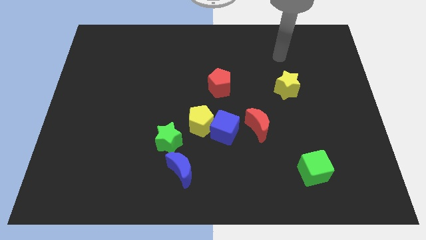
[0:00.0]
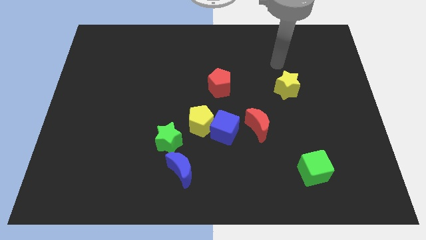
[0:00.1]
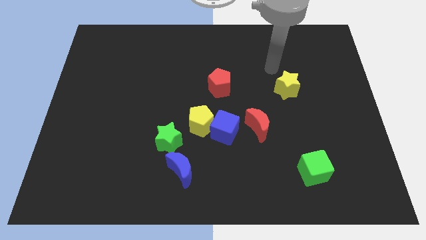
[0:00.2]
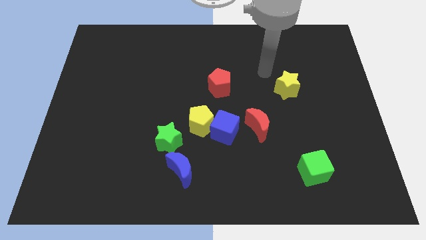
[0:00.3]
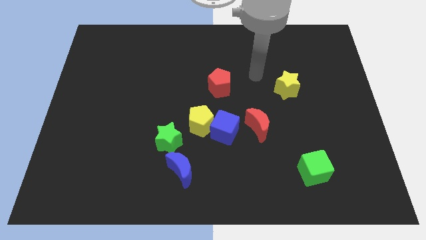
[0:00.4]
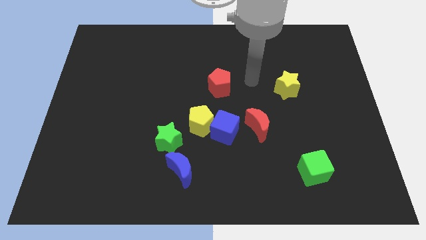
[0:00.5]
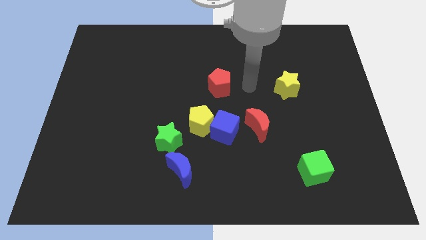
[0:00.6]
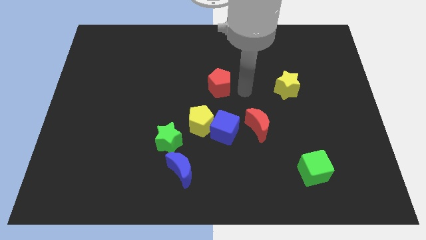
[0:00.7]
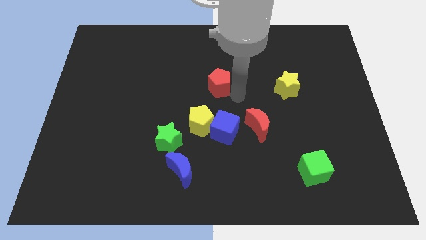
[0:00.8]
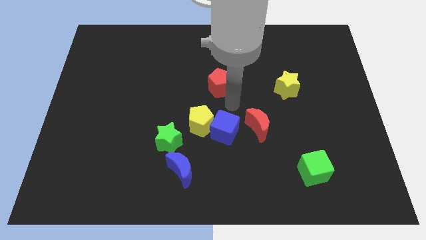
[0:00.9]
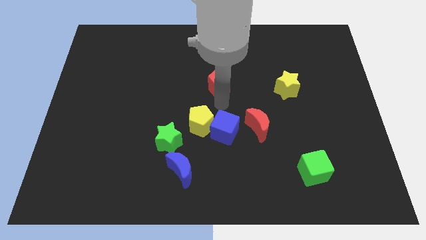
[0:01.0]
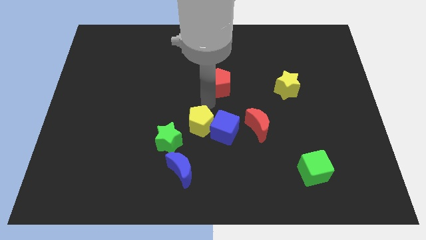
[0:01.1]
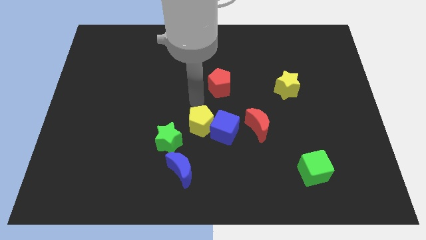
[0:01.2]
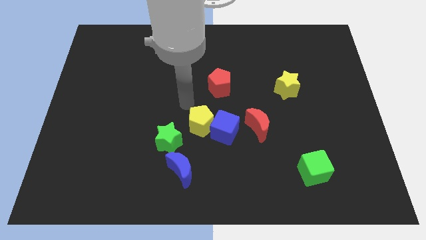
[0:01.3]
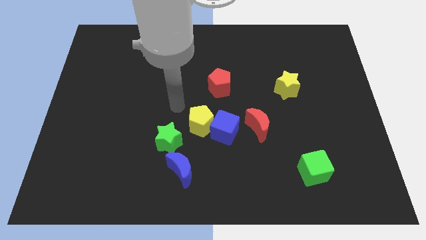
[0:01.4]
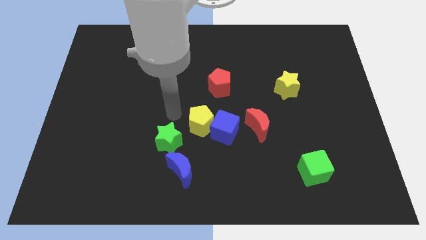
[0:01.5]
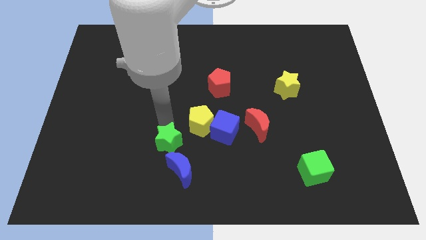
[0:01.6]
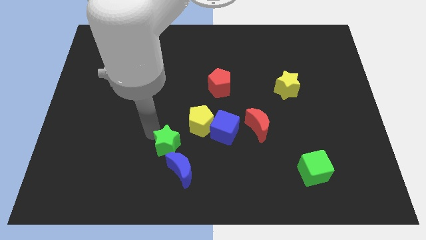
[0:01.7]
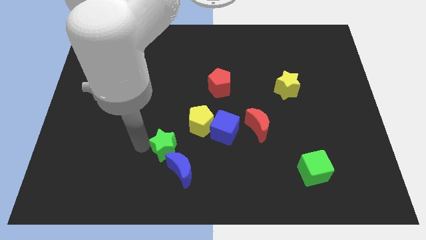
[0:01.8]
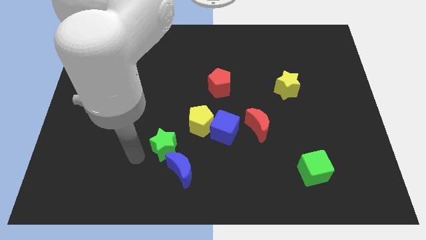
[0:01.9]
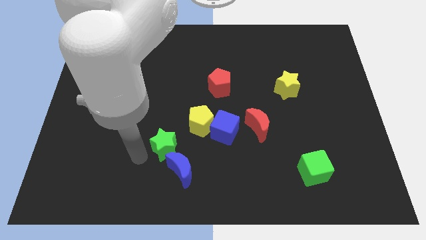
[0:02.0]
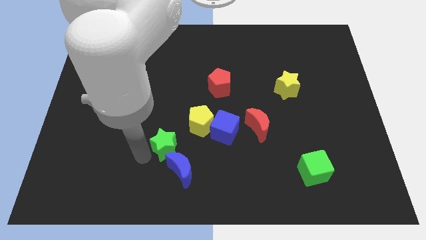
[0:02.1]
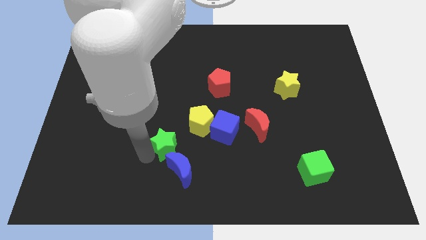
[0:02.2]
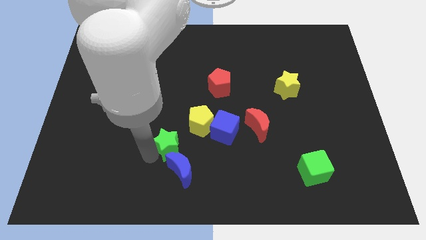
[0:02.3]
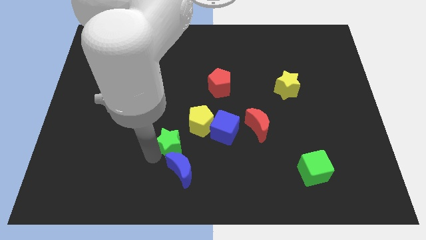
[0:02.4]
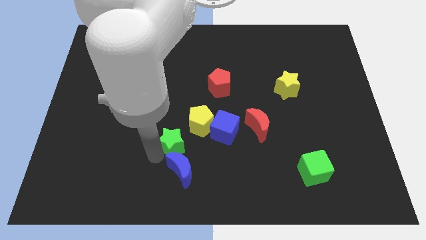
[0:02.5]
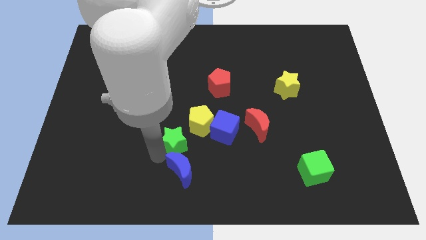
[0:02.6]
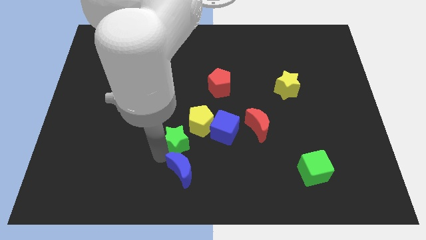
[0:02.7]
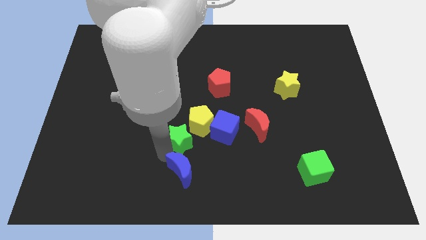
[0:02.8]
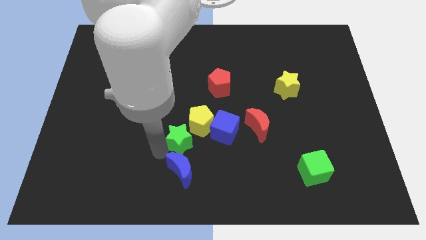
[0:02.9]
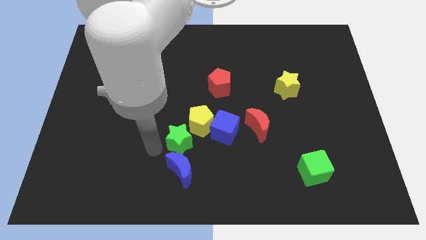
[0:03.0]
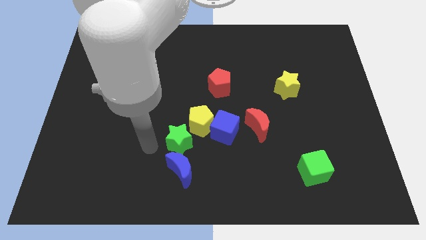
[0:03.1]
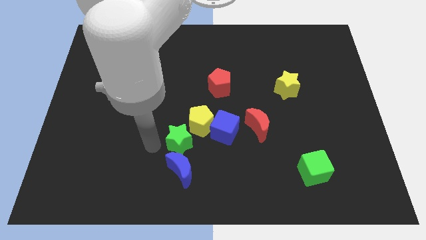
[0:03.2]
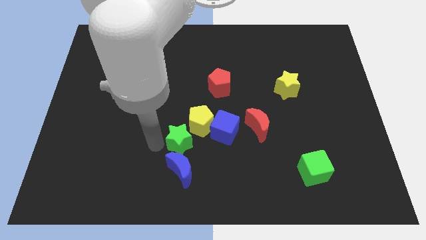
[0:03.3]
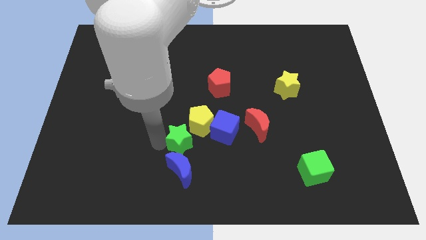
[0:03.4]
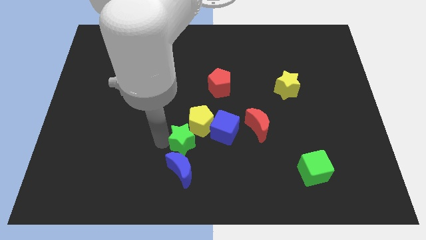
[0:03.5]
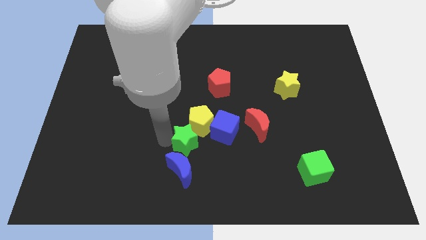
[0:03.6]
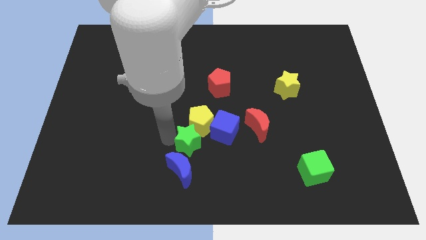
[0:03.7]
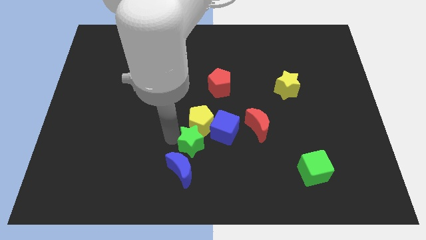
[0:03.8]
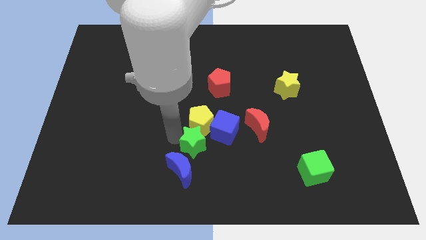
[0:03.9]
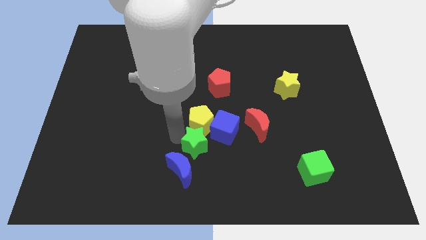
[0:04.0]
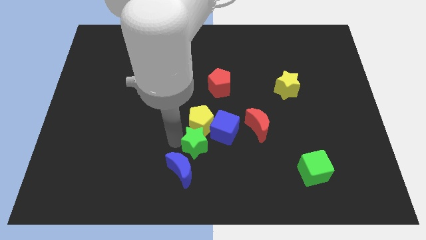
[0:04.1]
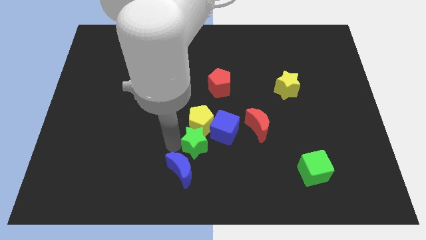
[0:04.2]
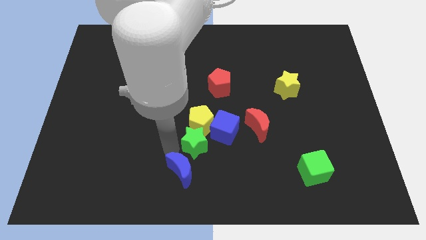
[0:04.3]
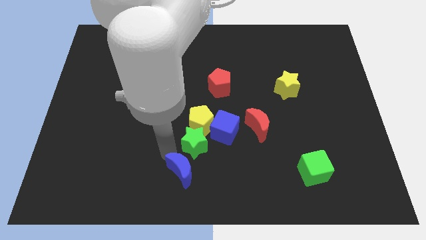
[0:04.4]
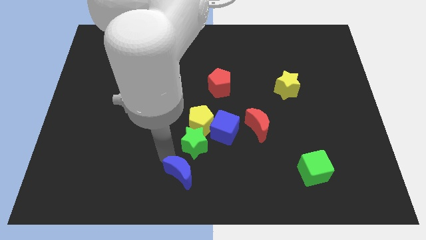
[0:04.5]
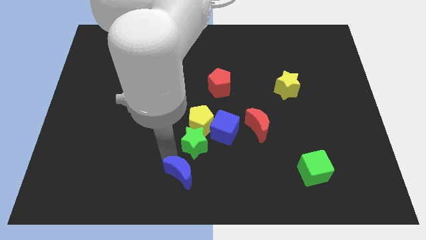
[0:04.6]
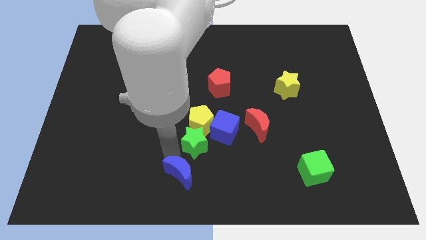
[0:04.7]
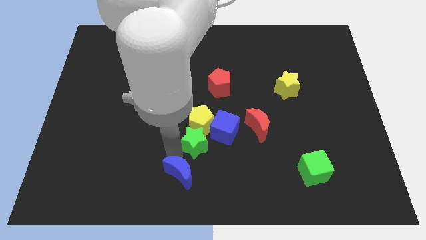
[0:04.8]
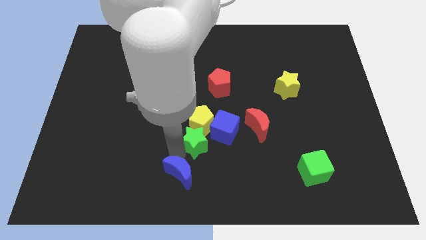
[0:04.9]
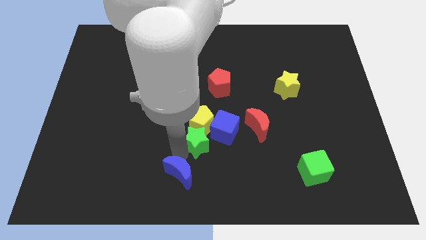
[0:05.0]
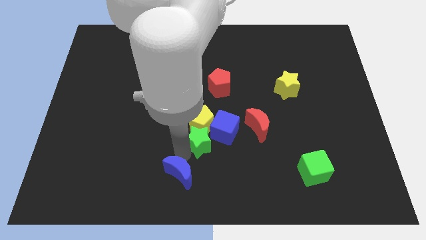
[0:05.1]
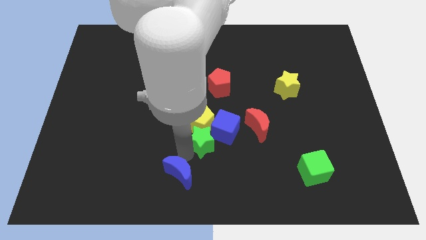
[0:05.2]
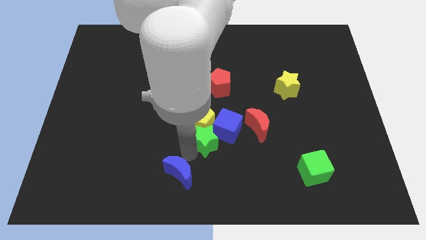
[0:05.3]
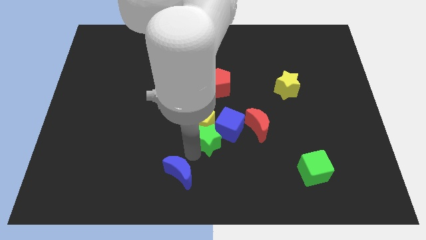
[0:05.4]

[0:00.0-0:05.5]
put the green star next to the blue cube

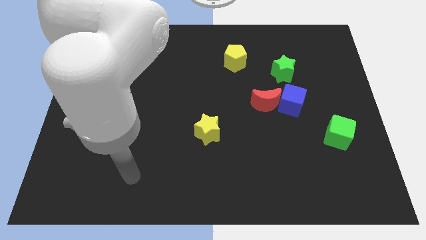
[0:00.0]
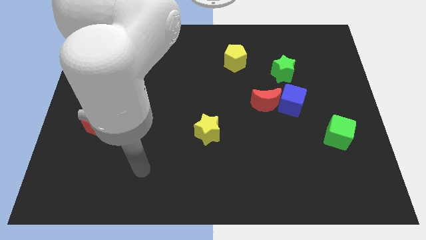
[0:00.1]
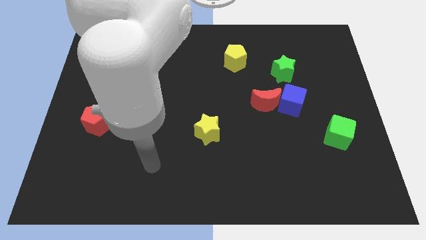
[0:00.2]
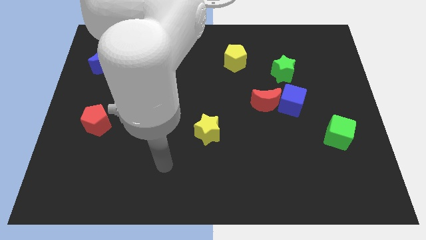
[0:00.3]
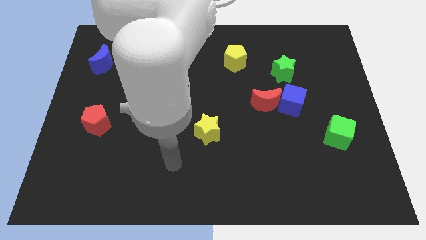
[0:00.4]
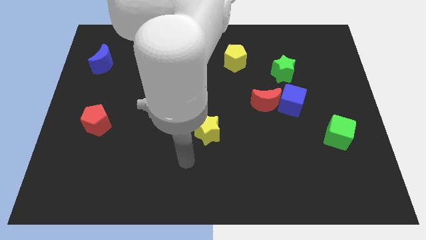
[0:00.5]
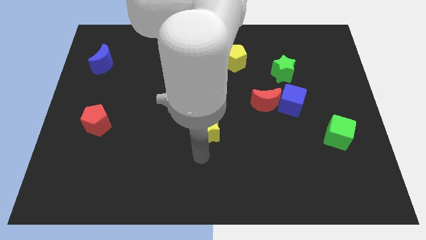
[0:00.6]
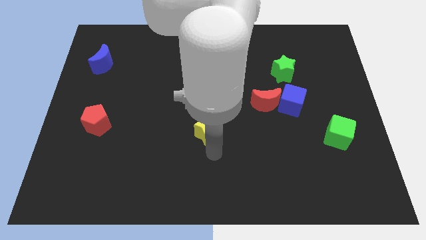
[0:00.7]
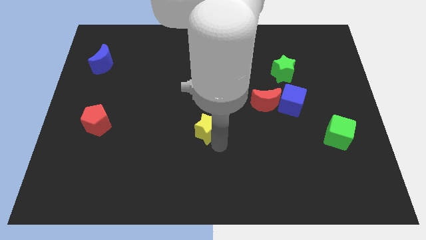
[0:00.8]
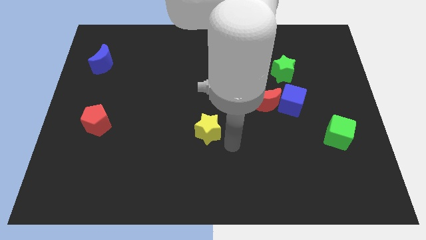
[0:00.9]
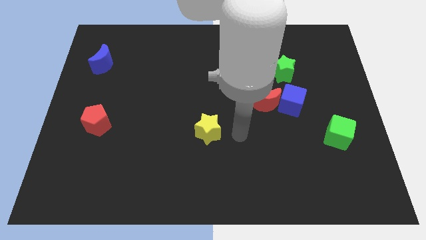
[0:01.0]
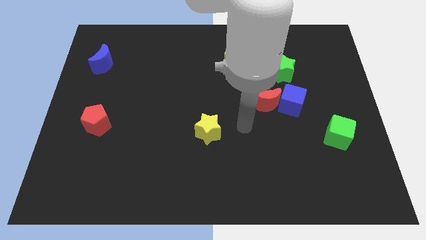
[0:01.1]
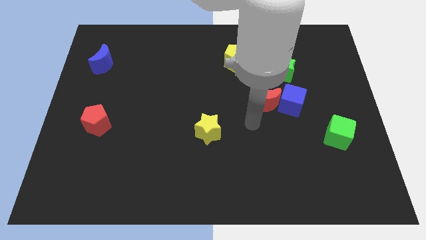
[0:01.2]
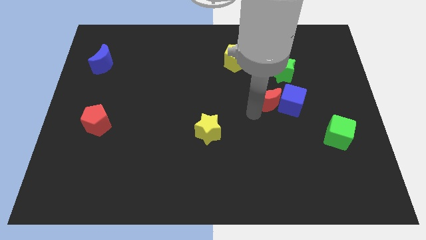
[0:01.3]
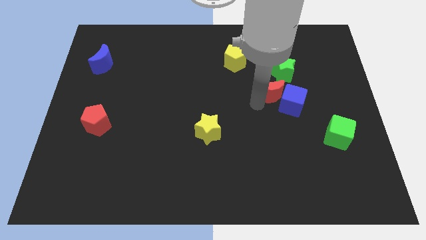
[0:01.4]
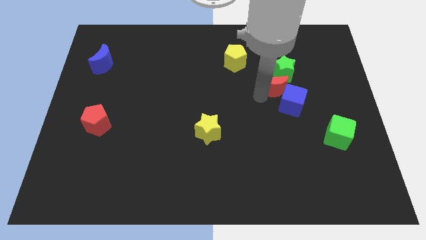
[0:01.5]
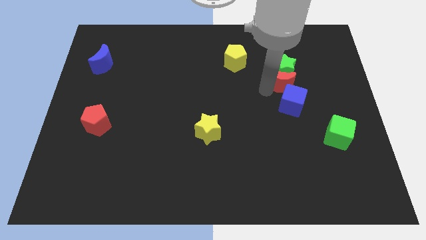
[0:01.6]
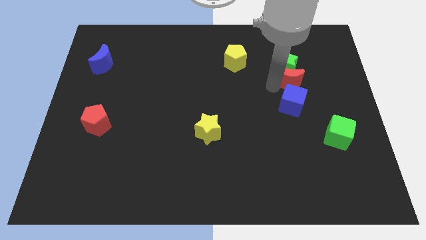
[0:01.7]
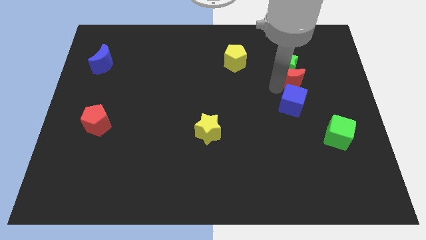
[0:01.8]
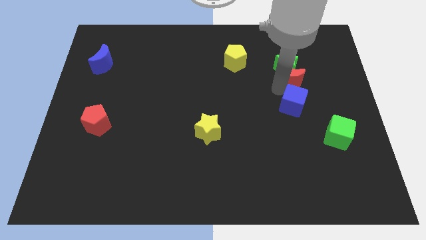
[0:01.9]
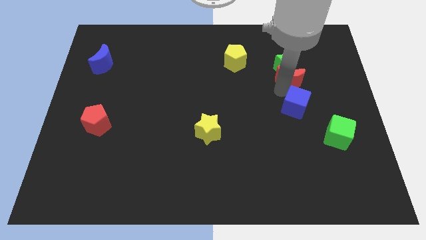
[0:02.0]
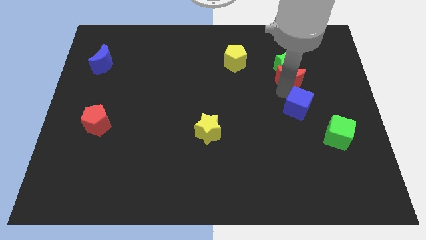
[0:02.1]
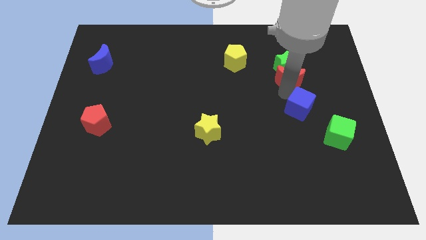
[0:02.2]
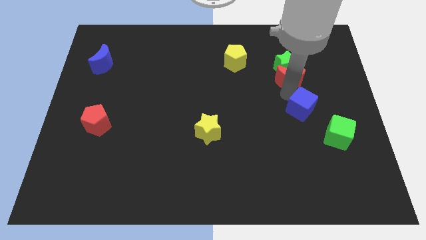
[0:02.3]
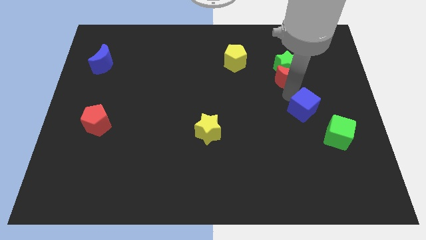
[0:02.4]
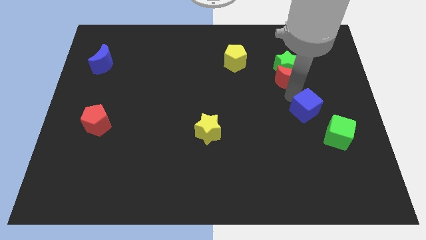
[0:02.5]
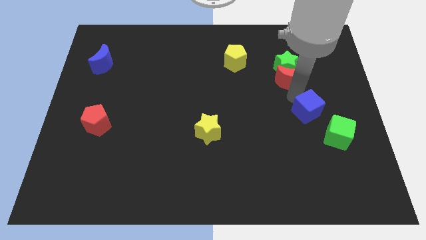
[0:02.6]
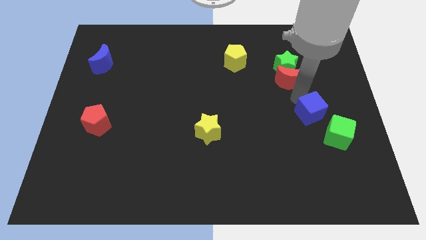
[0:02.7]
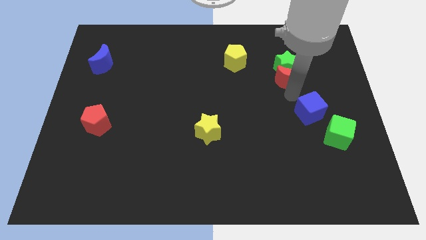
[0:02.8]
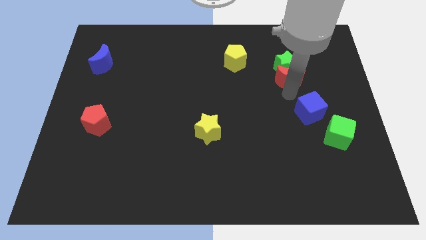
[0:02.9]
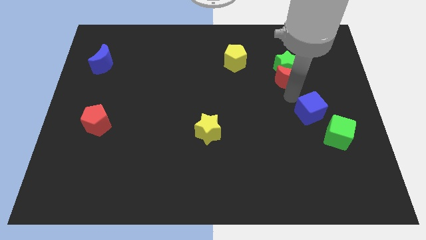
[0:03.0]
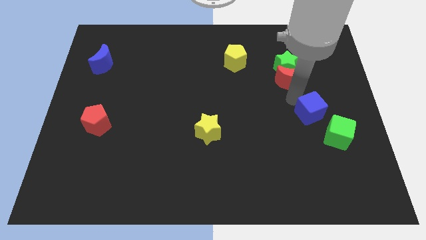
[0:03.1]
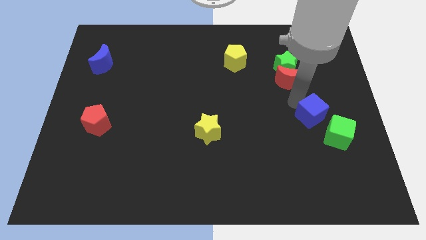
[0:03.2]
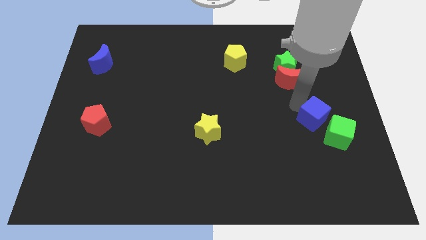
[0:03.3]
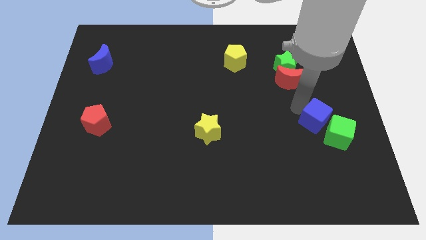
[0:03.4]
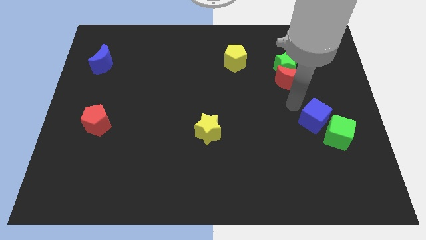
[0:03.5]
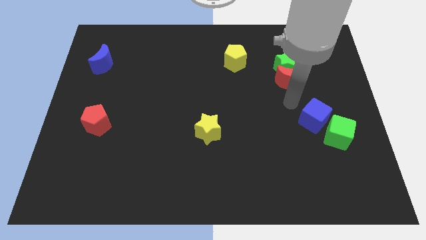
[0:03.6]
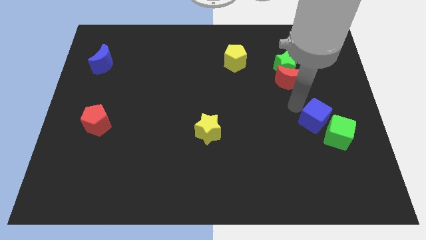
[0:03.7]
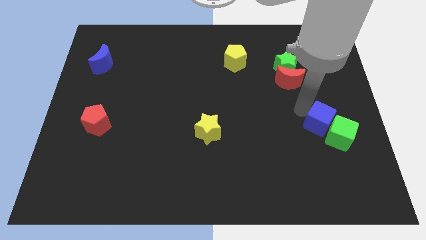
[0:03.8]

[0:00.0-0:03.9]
push the blue cube towards the green cube
